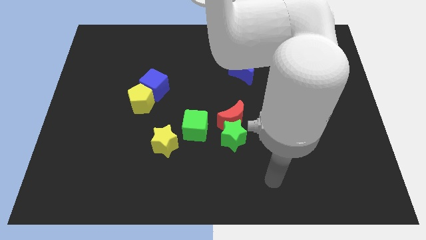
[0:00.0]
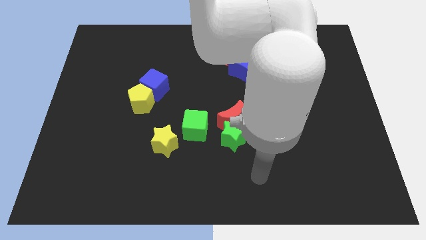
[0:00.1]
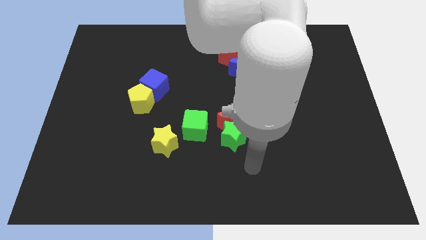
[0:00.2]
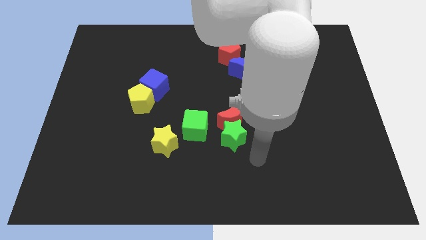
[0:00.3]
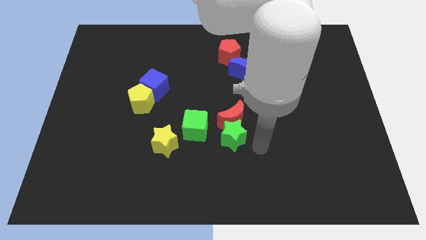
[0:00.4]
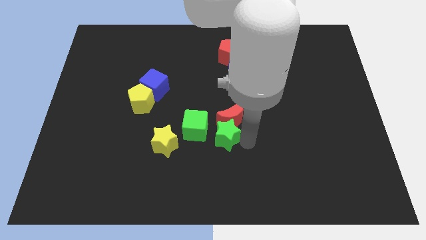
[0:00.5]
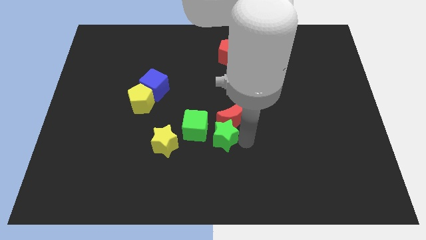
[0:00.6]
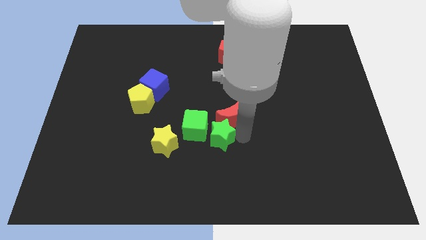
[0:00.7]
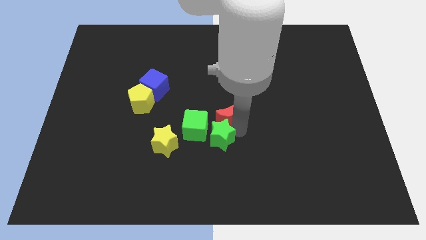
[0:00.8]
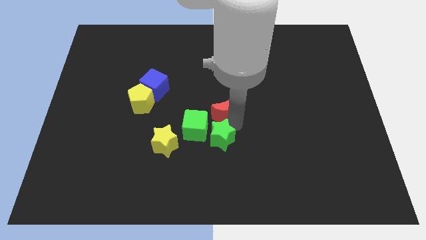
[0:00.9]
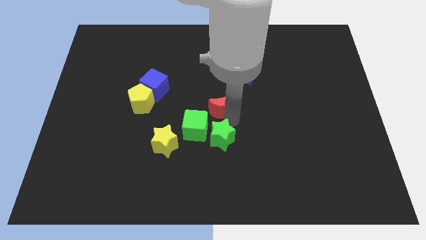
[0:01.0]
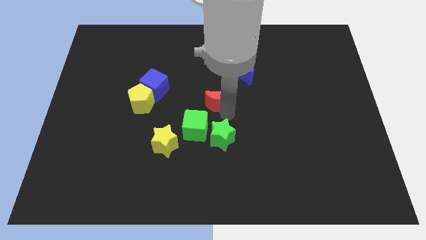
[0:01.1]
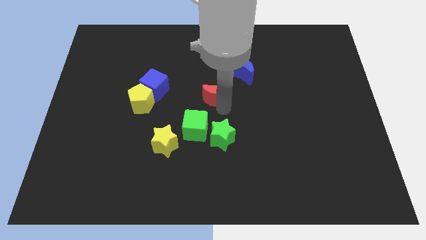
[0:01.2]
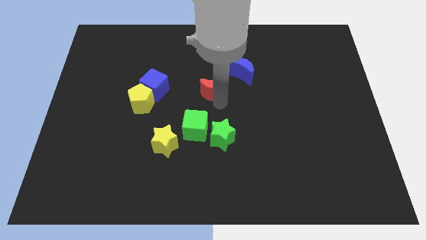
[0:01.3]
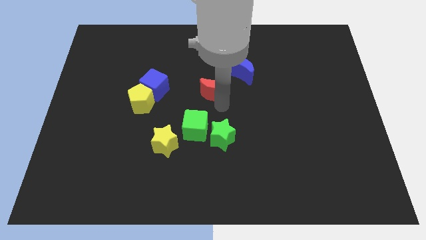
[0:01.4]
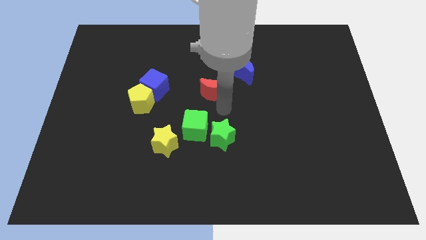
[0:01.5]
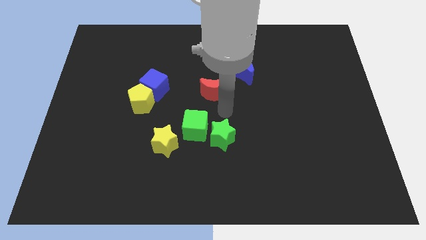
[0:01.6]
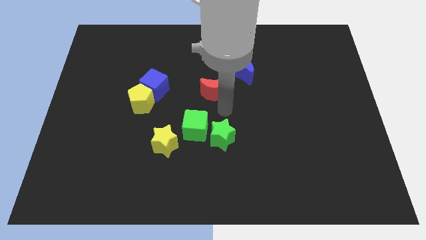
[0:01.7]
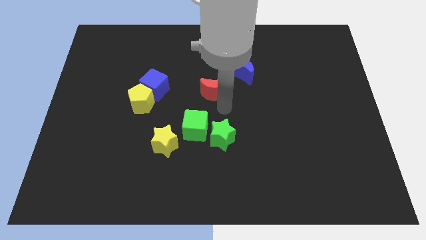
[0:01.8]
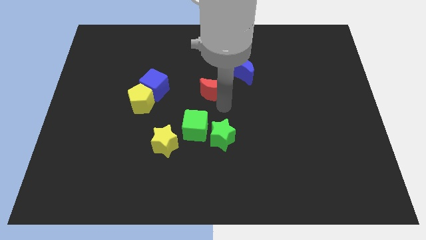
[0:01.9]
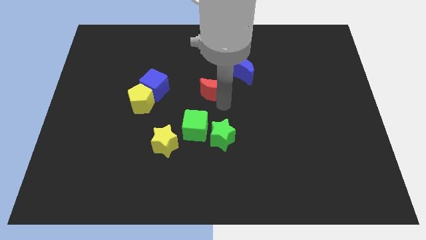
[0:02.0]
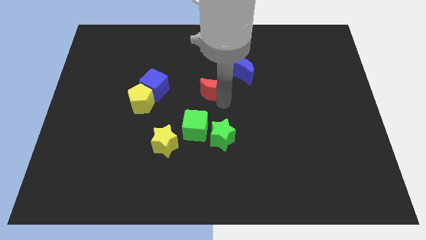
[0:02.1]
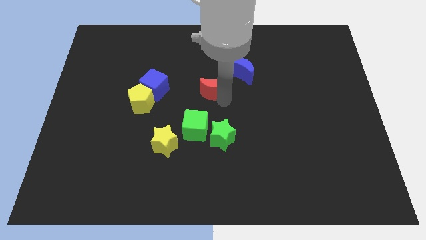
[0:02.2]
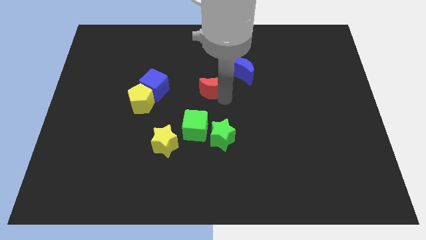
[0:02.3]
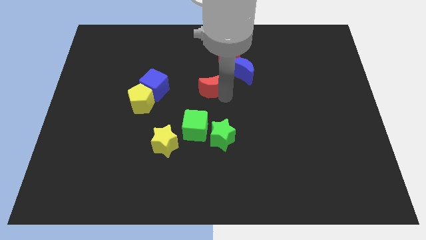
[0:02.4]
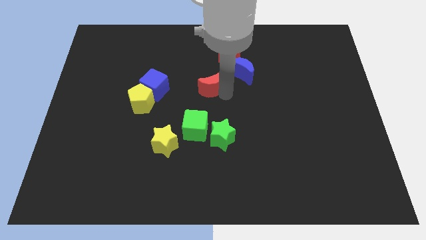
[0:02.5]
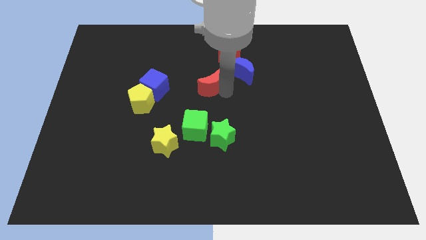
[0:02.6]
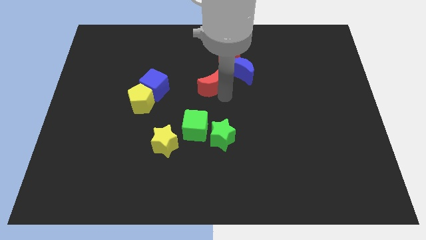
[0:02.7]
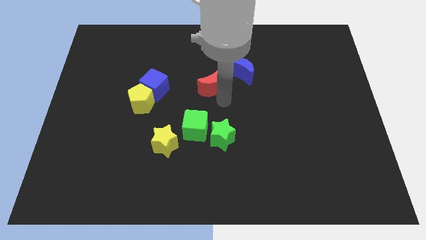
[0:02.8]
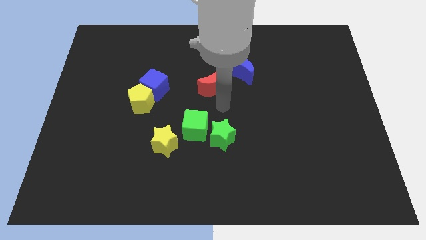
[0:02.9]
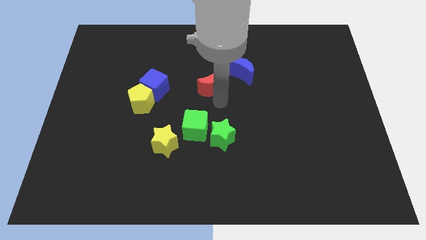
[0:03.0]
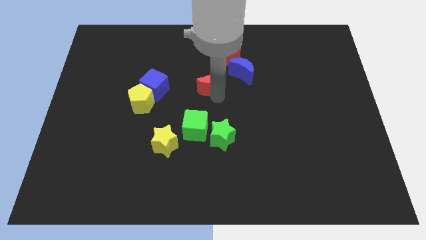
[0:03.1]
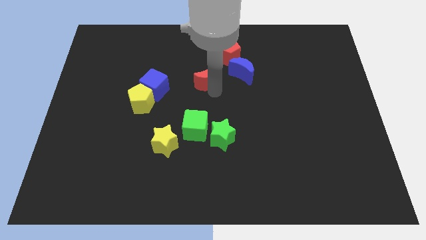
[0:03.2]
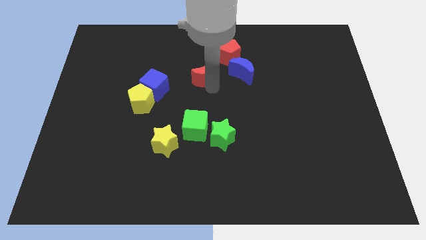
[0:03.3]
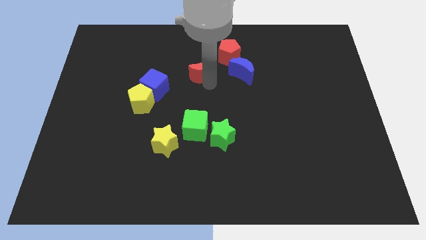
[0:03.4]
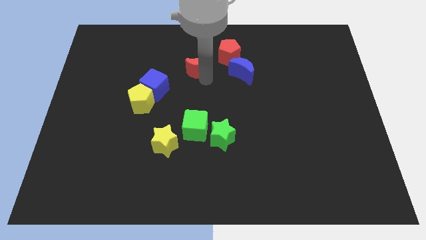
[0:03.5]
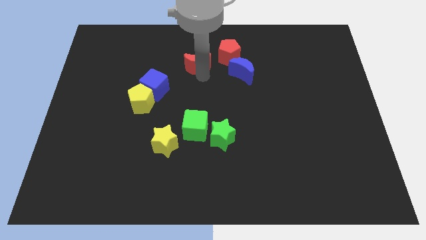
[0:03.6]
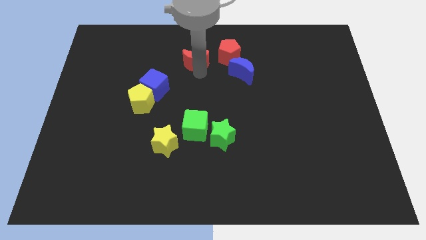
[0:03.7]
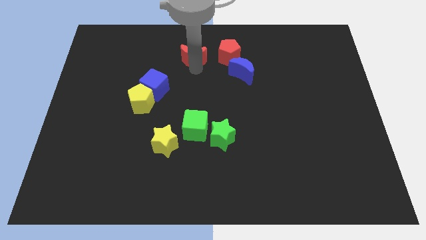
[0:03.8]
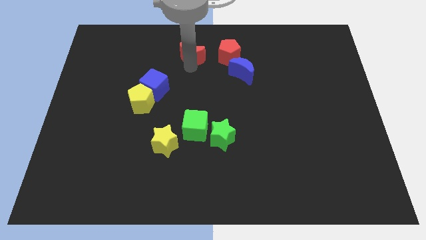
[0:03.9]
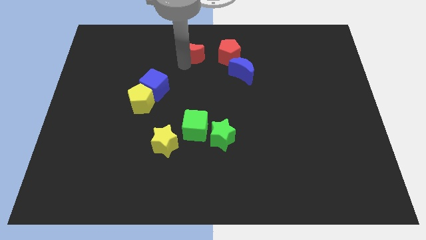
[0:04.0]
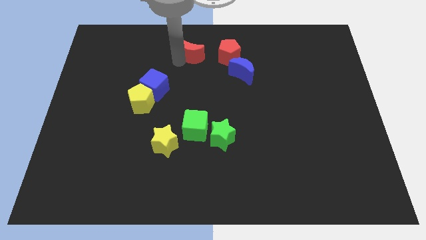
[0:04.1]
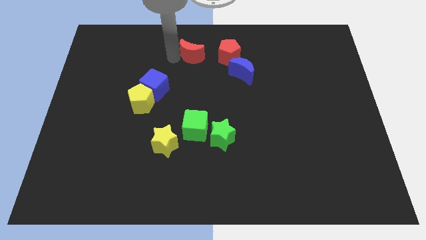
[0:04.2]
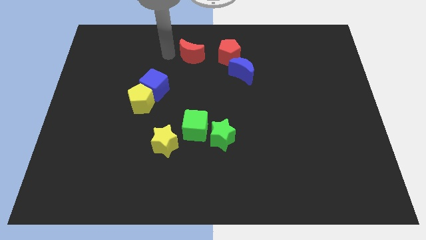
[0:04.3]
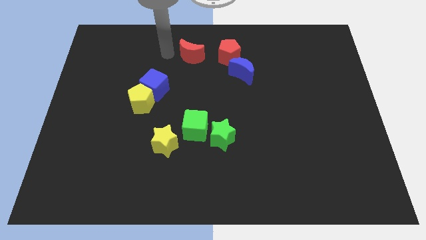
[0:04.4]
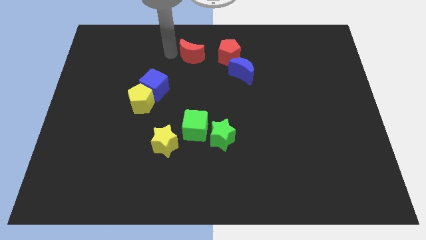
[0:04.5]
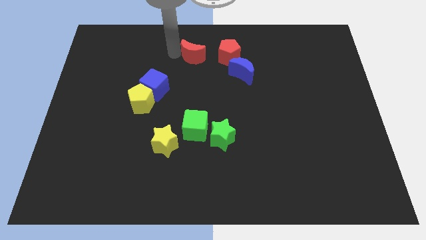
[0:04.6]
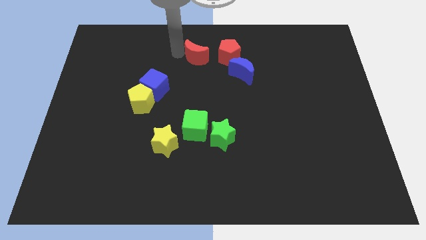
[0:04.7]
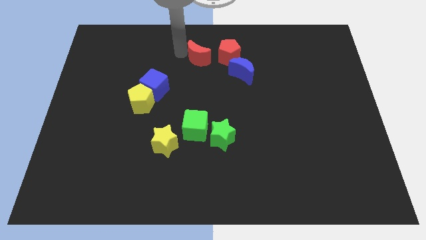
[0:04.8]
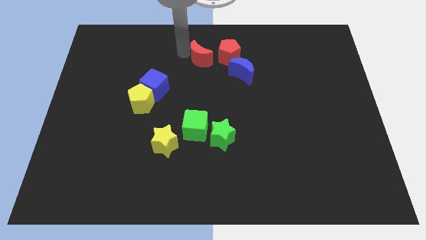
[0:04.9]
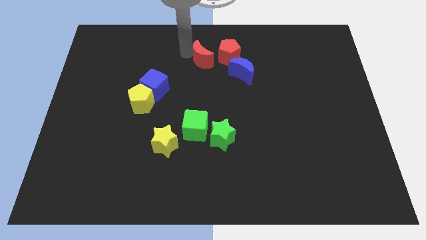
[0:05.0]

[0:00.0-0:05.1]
slide the red moon to the top left side of the blue moon

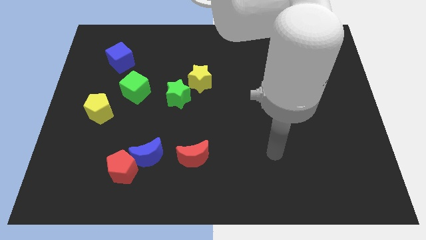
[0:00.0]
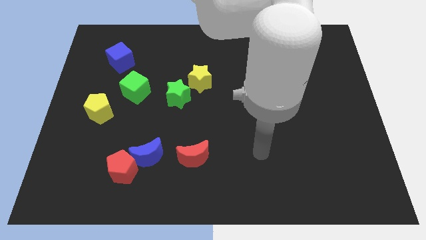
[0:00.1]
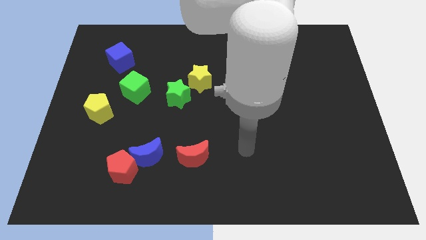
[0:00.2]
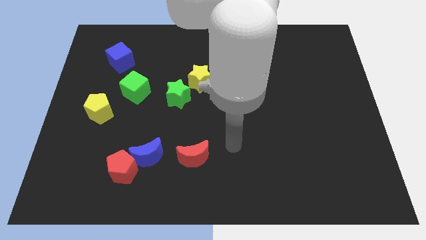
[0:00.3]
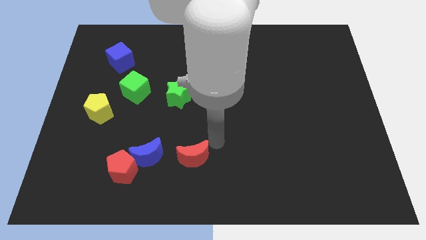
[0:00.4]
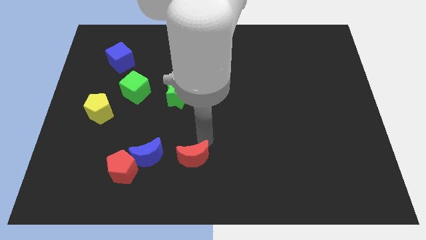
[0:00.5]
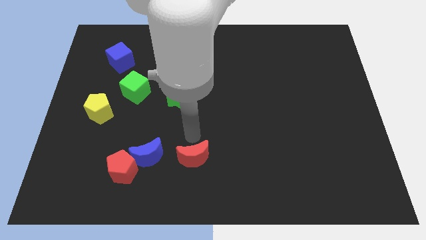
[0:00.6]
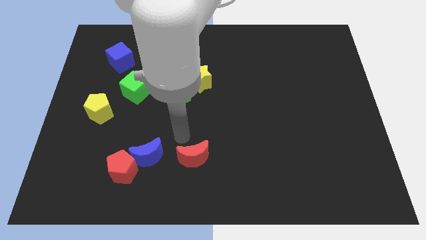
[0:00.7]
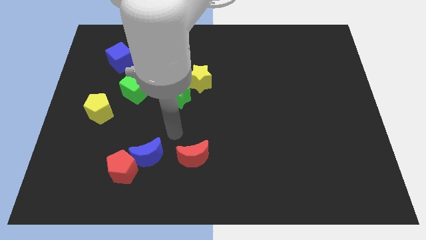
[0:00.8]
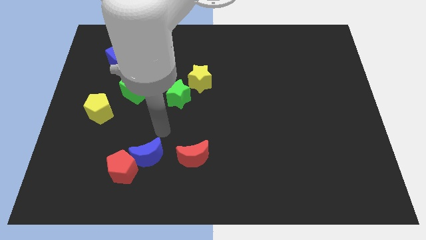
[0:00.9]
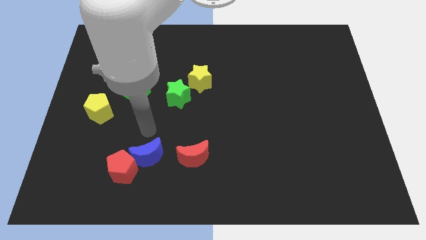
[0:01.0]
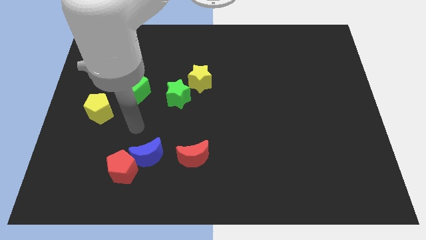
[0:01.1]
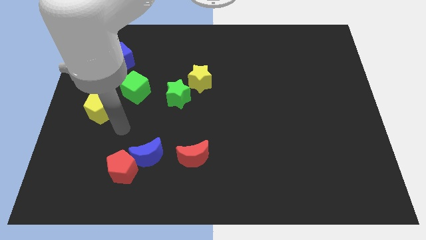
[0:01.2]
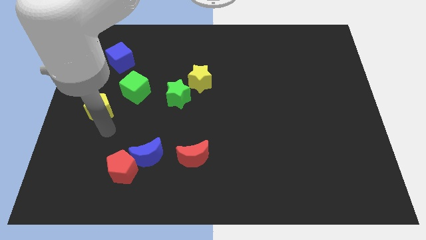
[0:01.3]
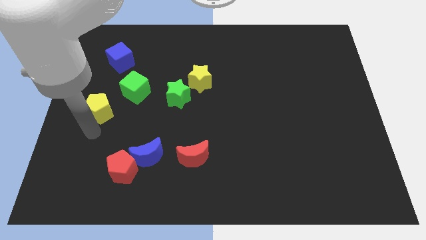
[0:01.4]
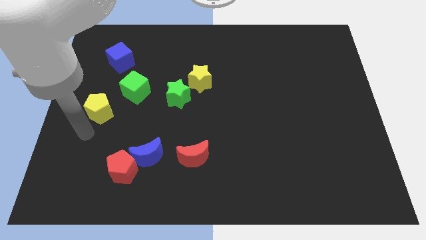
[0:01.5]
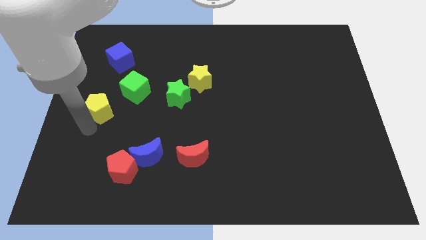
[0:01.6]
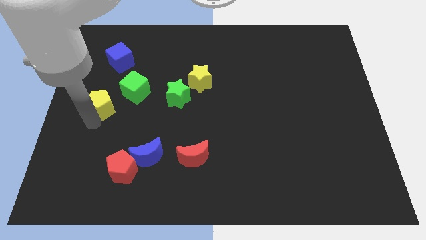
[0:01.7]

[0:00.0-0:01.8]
put the yellow pentagon to the bottom of the blue cube
